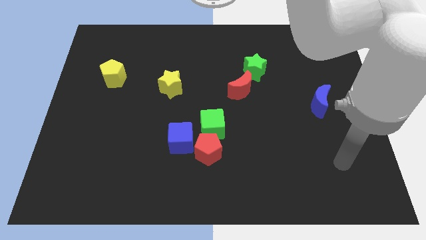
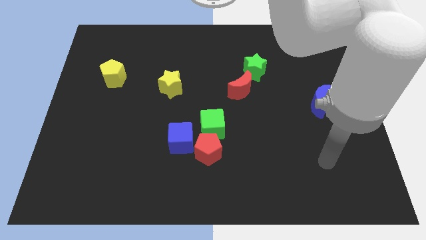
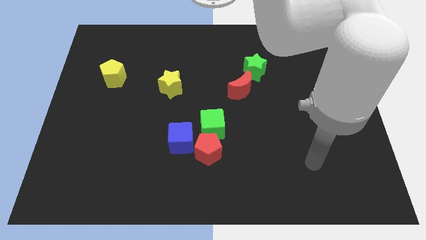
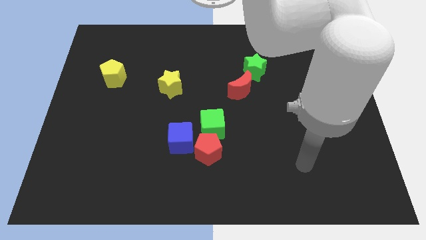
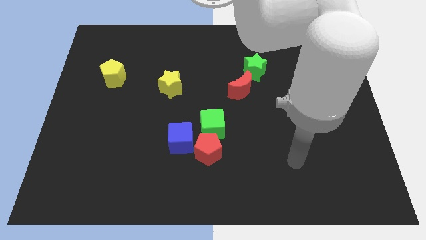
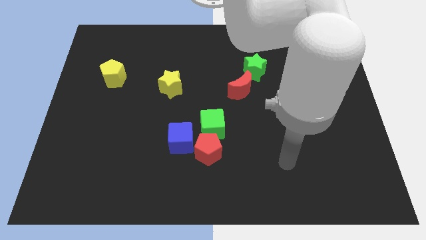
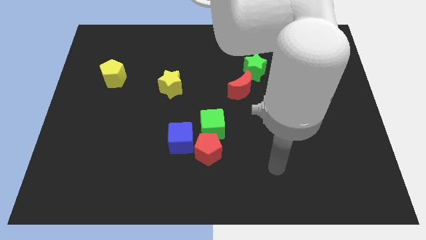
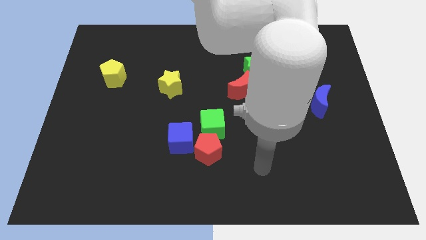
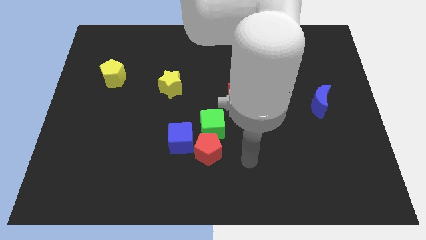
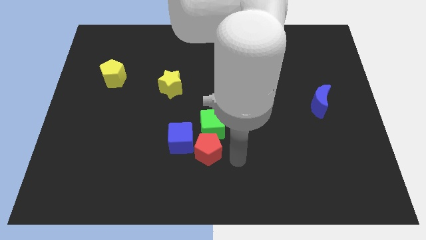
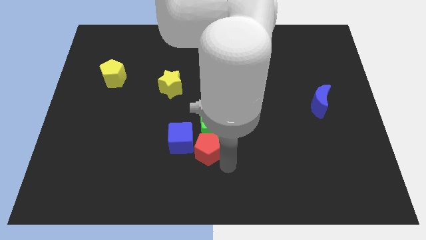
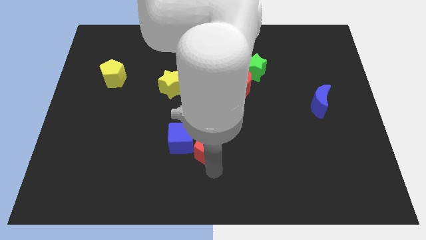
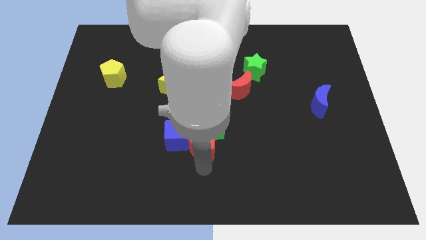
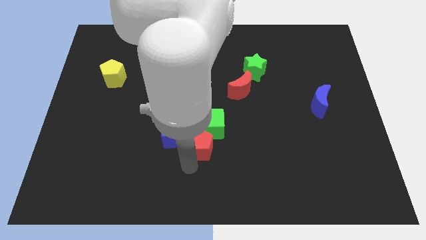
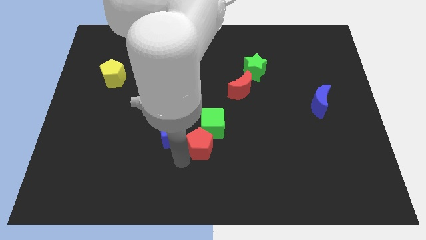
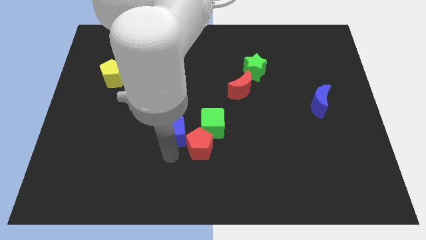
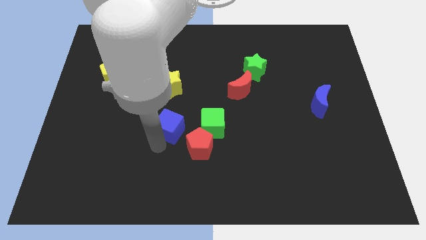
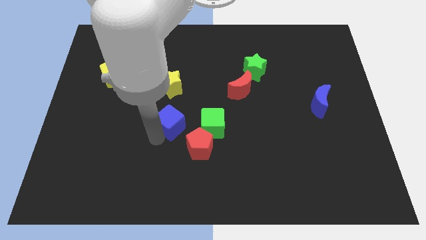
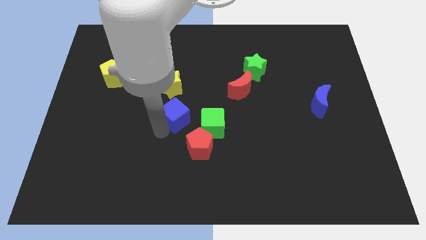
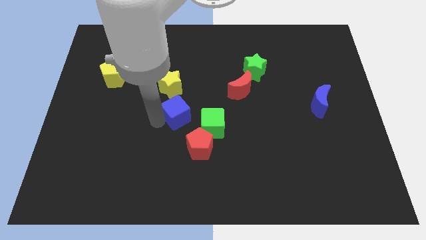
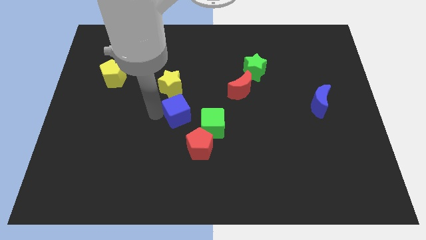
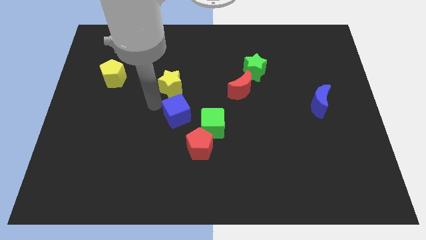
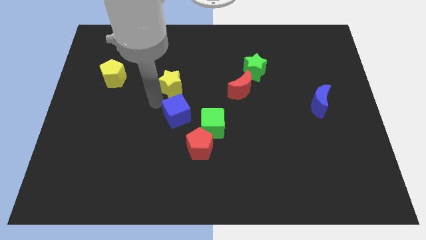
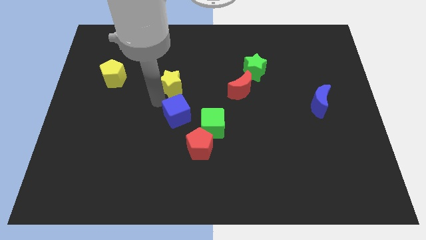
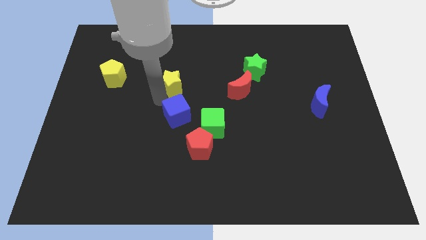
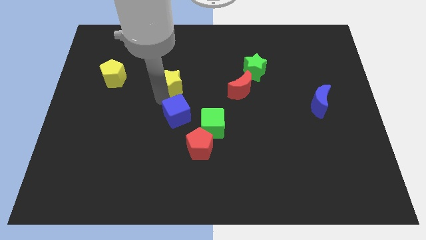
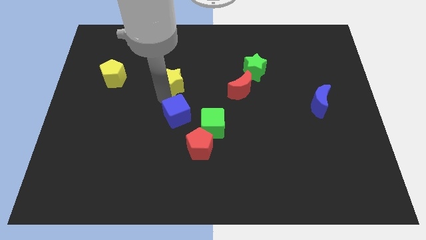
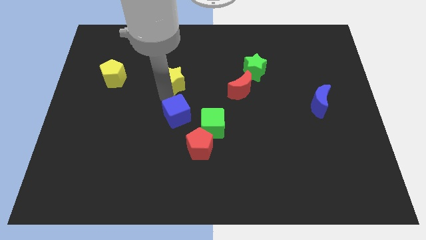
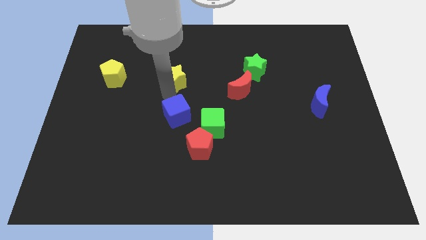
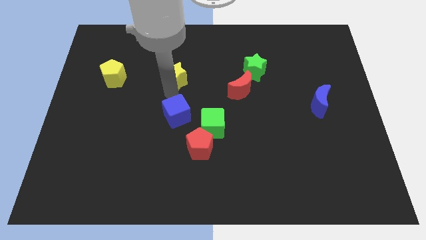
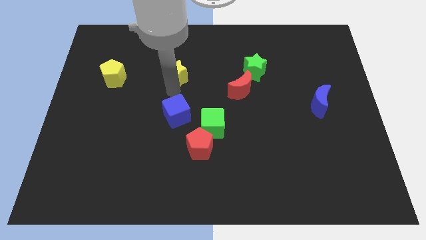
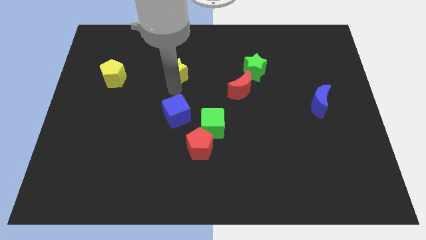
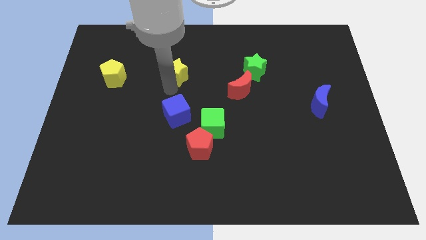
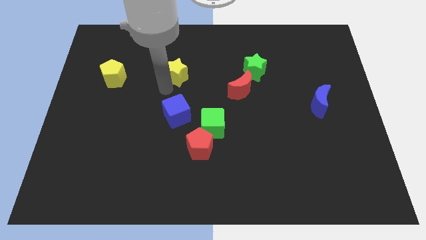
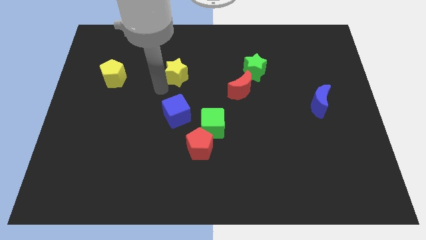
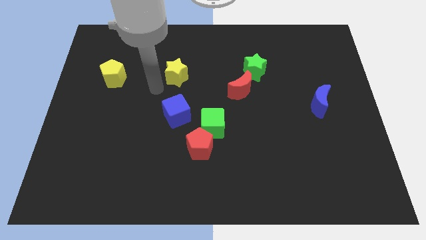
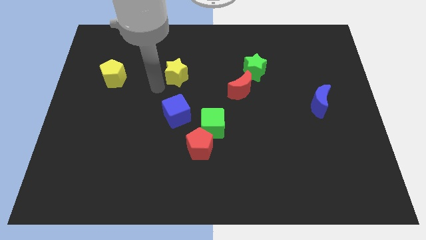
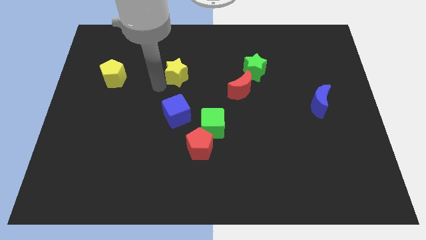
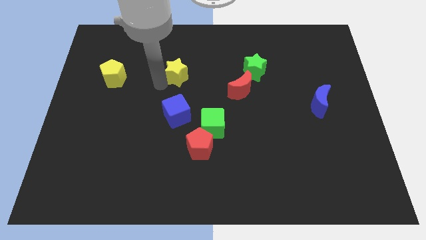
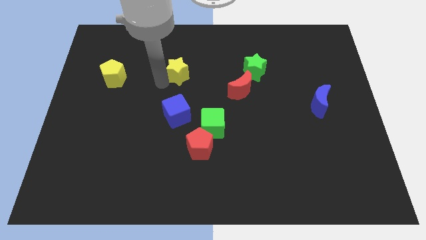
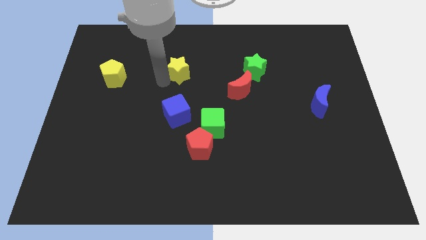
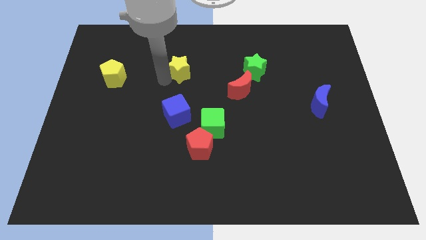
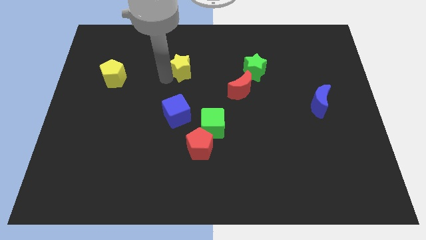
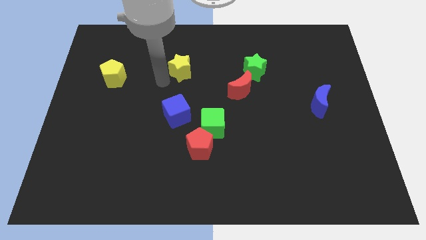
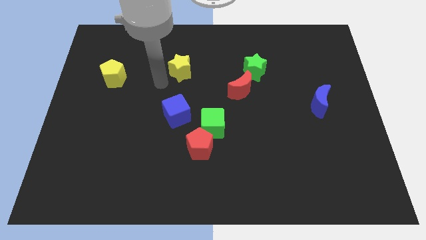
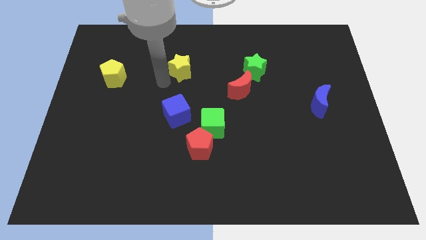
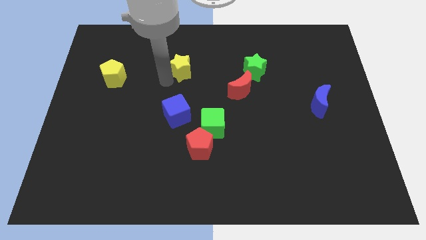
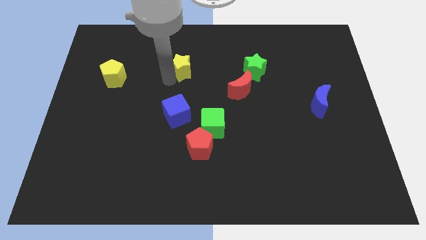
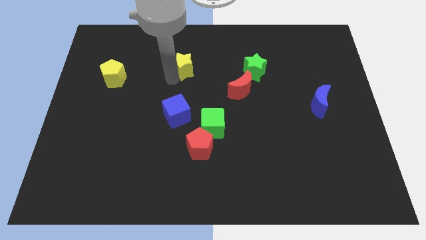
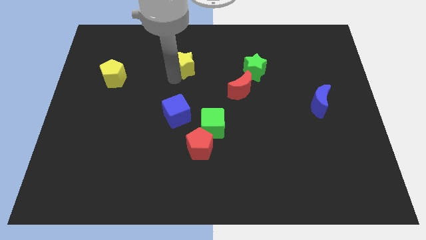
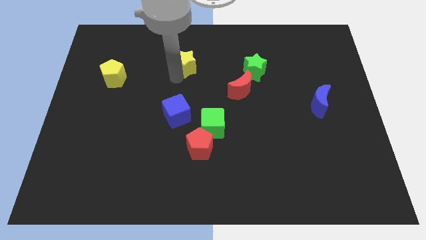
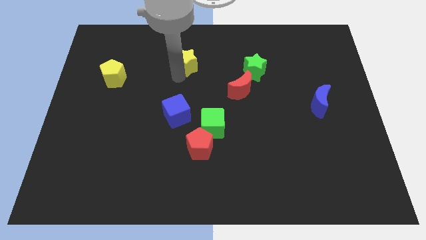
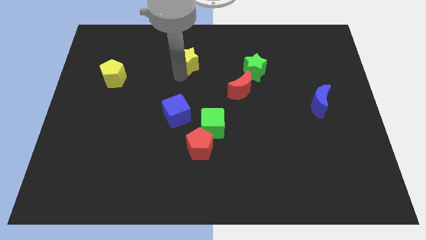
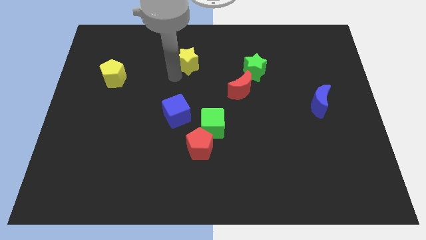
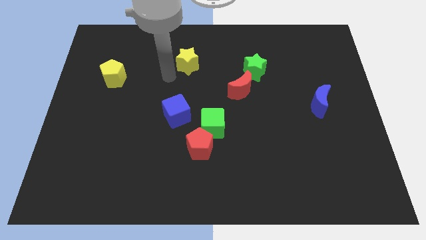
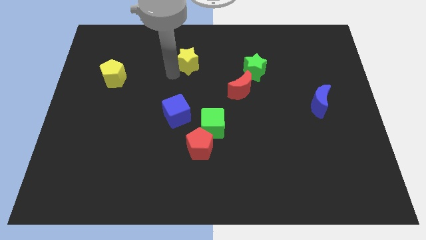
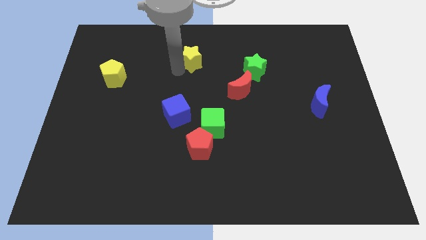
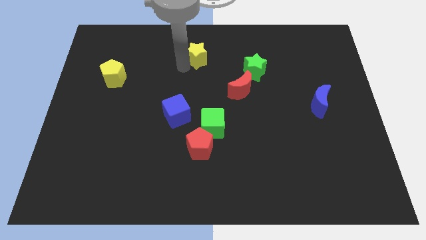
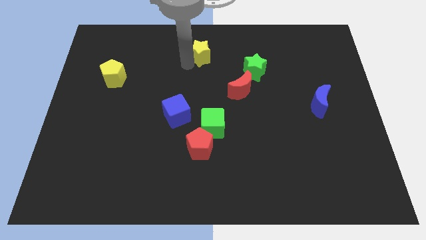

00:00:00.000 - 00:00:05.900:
slide the yellow star to the top

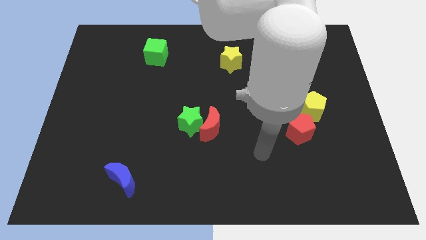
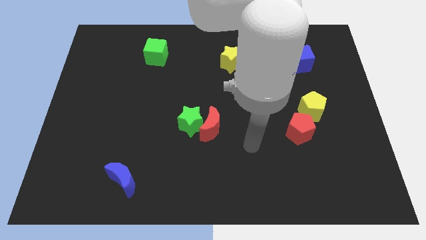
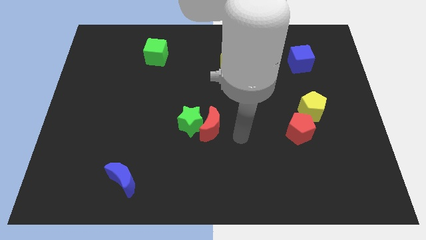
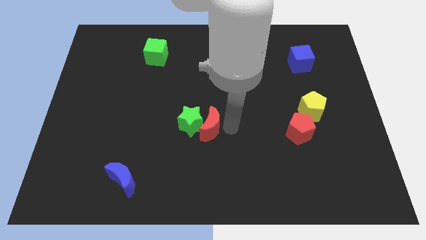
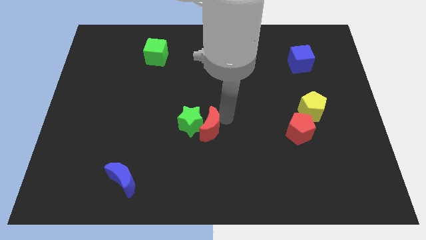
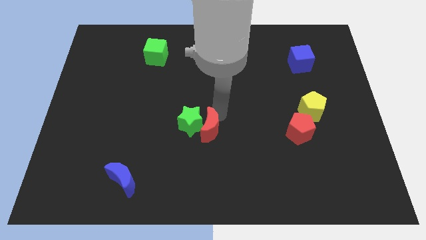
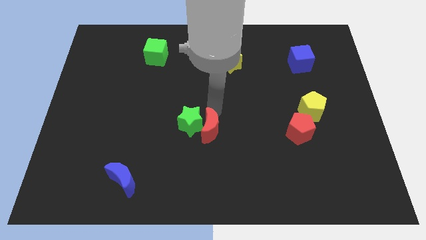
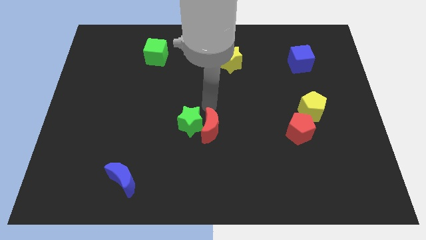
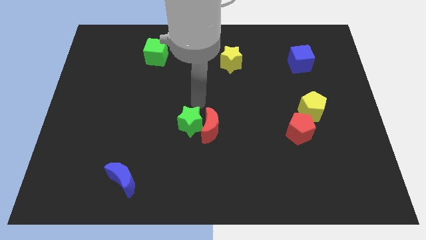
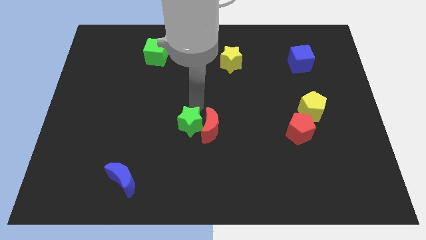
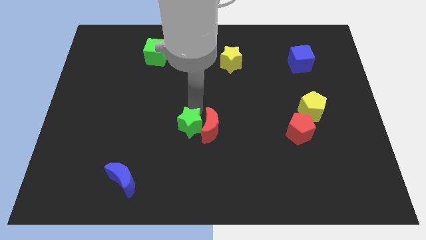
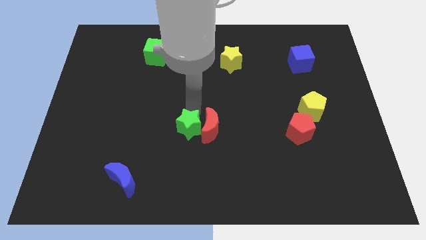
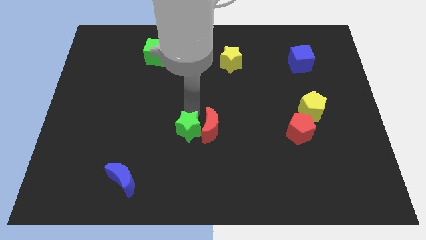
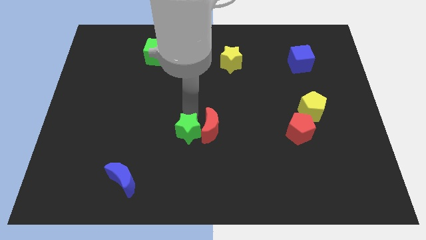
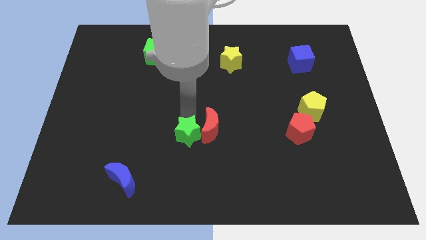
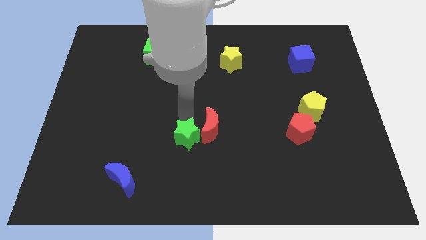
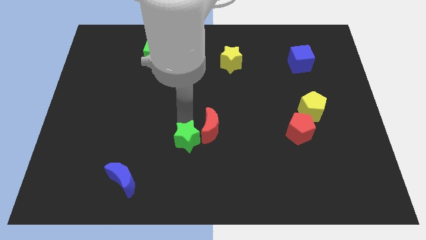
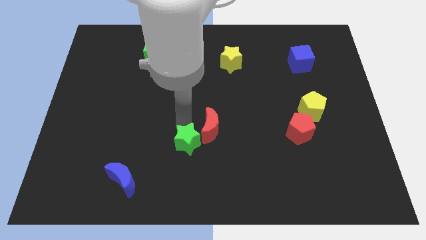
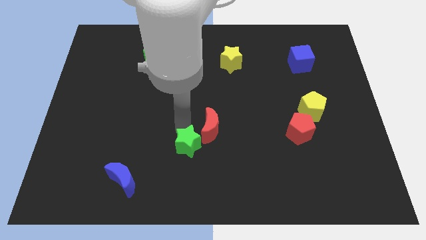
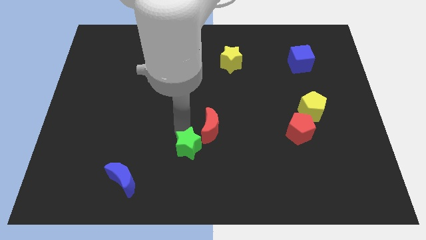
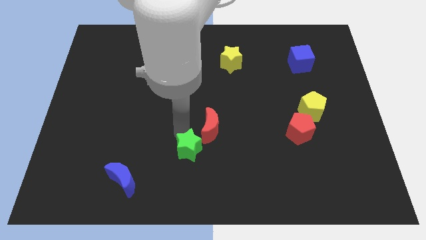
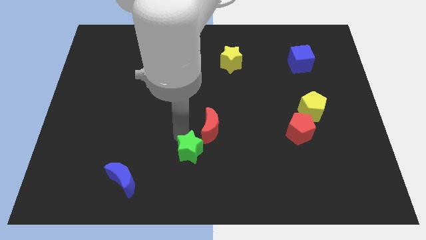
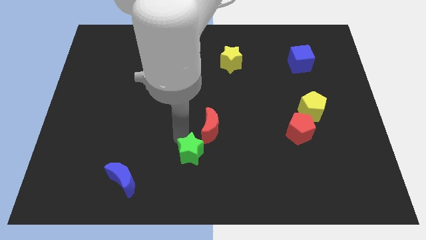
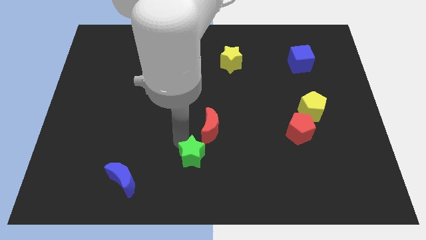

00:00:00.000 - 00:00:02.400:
push the green star to the bottom side
